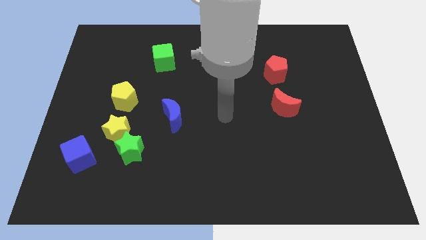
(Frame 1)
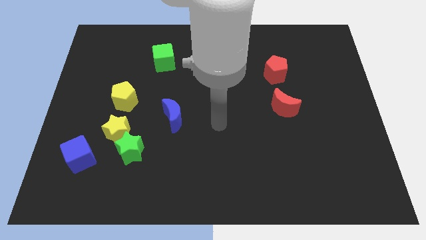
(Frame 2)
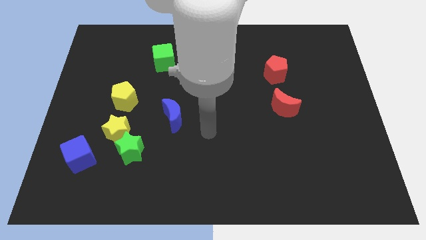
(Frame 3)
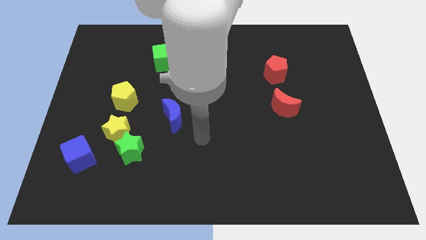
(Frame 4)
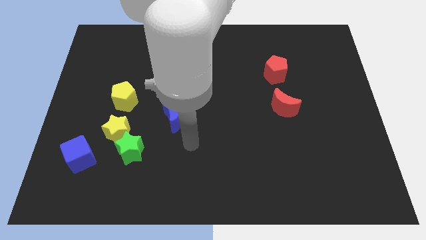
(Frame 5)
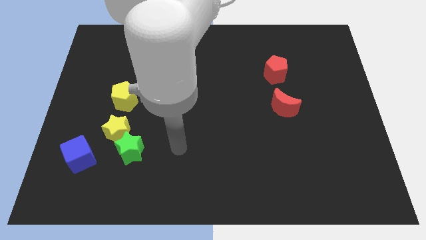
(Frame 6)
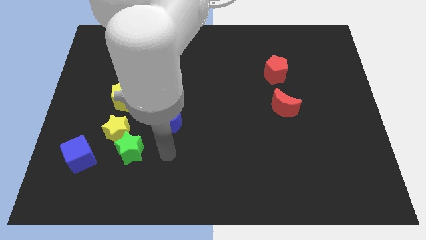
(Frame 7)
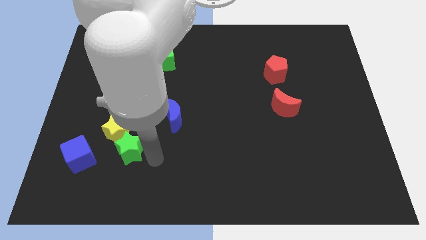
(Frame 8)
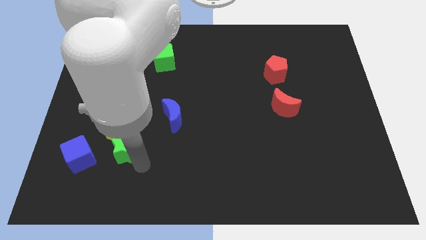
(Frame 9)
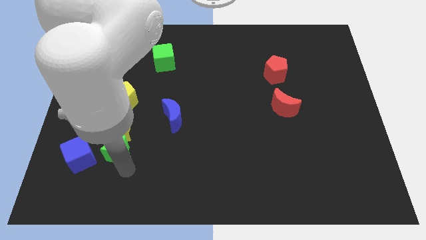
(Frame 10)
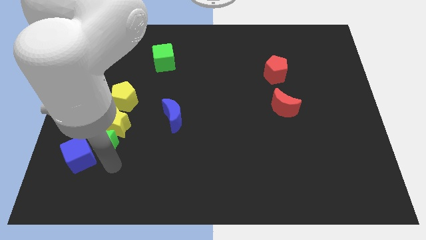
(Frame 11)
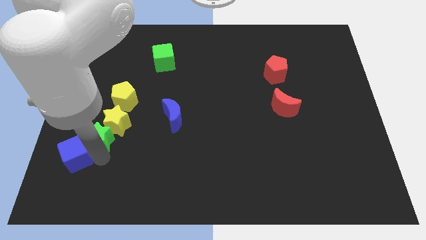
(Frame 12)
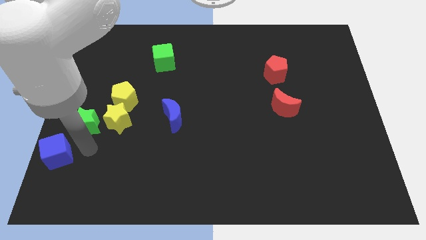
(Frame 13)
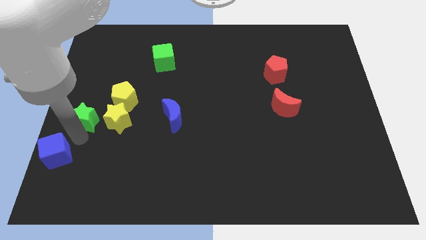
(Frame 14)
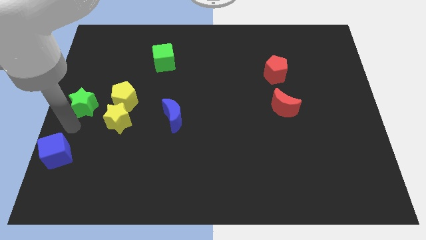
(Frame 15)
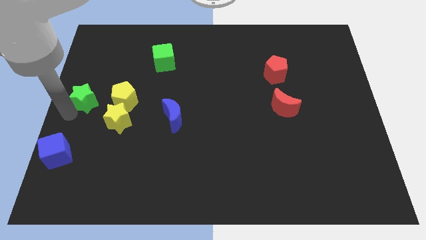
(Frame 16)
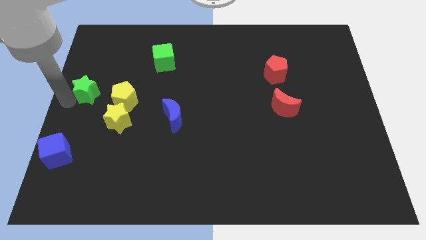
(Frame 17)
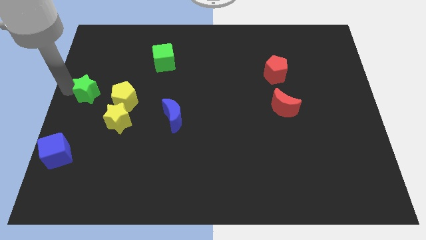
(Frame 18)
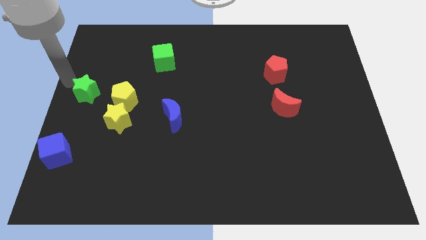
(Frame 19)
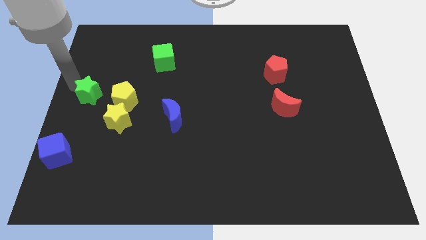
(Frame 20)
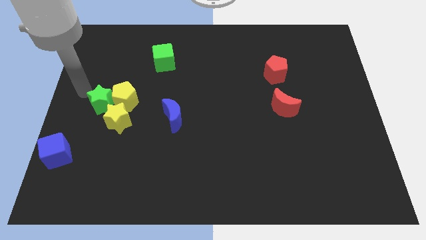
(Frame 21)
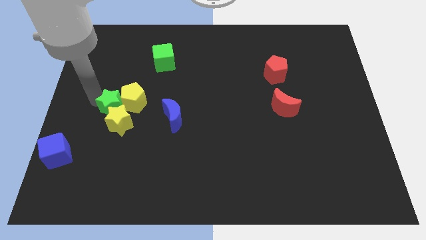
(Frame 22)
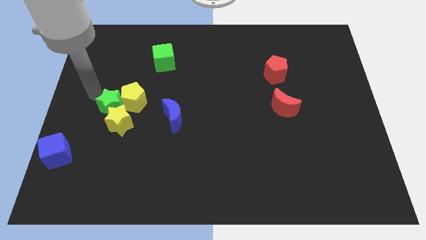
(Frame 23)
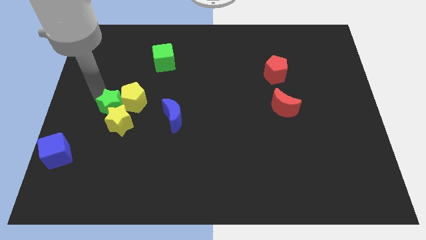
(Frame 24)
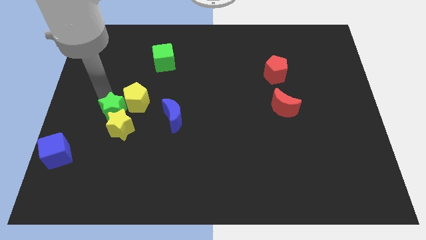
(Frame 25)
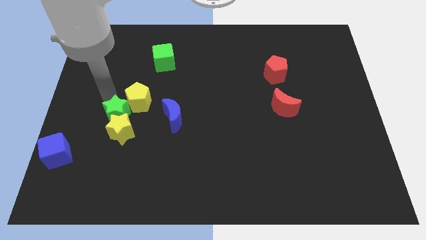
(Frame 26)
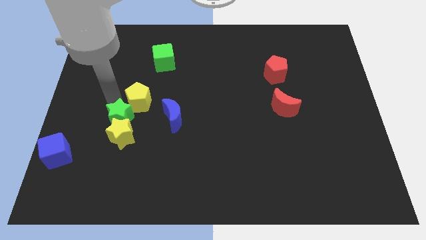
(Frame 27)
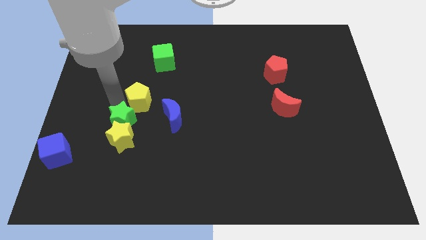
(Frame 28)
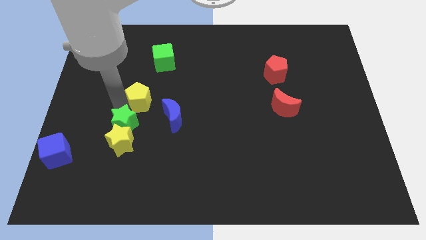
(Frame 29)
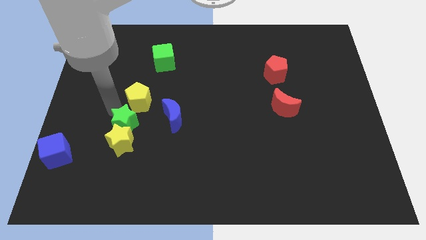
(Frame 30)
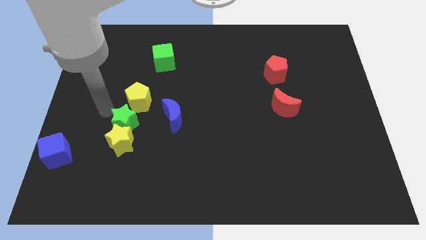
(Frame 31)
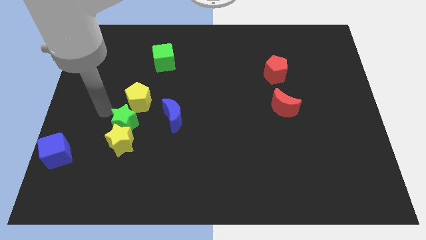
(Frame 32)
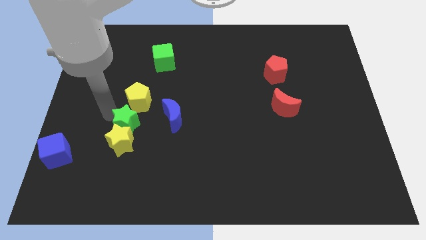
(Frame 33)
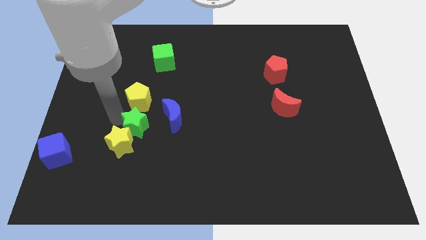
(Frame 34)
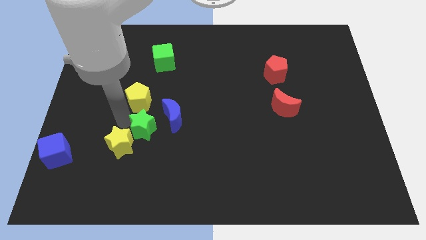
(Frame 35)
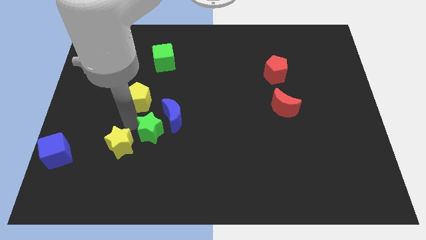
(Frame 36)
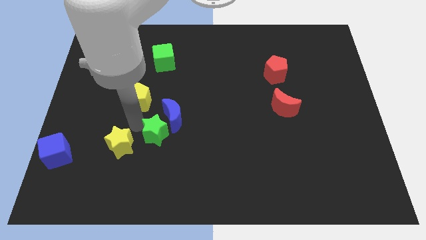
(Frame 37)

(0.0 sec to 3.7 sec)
slightly move the green star diagonally upwards and to the right

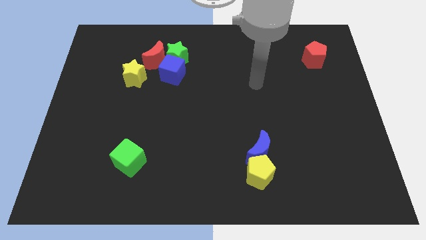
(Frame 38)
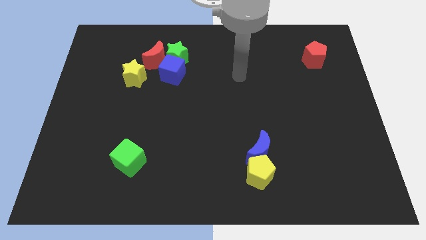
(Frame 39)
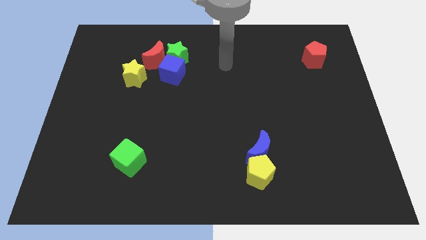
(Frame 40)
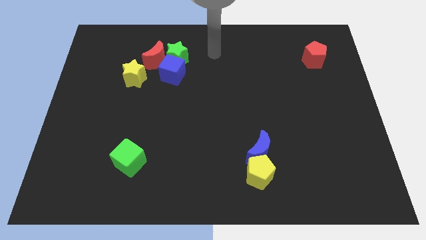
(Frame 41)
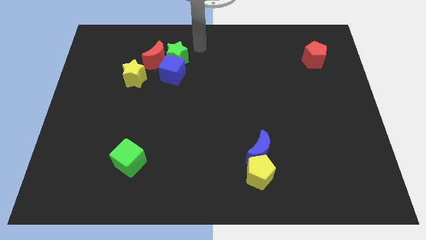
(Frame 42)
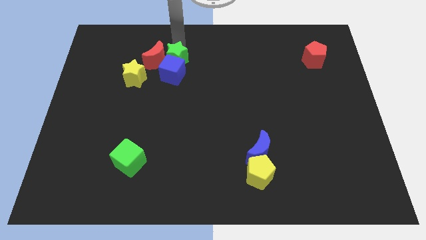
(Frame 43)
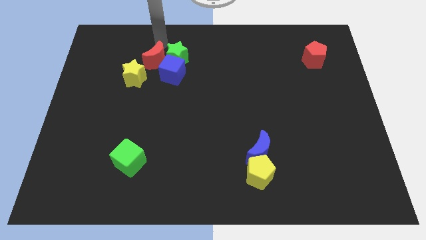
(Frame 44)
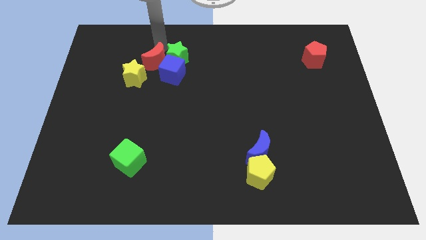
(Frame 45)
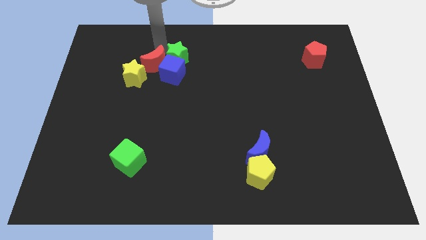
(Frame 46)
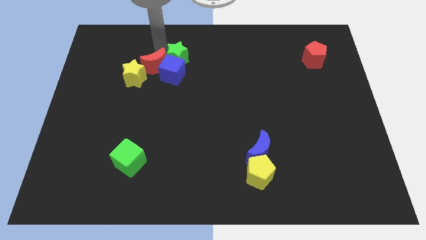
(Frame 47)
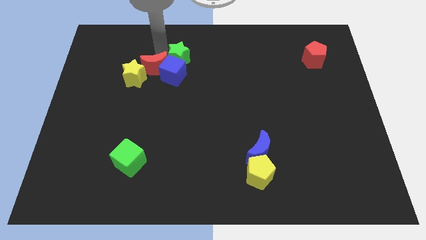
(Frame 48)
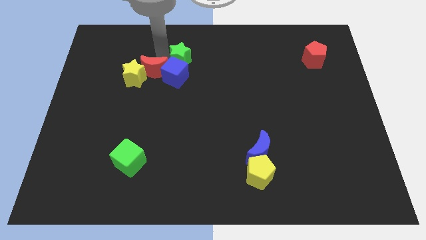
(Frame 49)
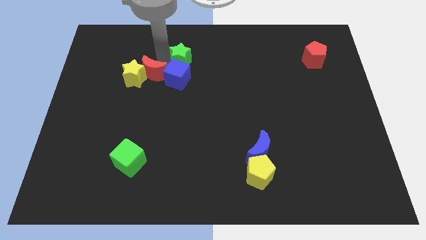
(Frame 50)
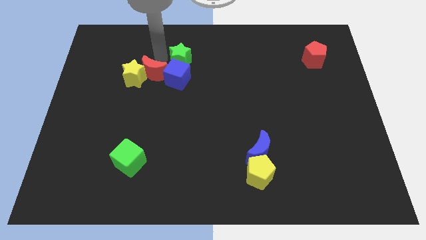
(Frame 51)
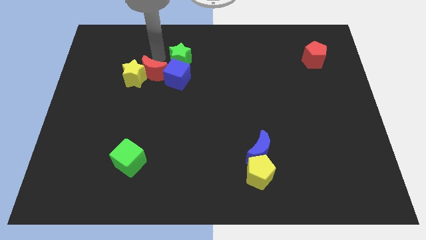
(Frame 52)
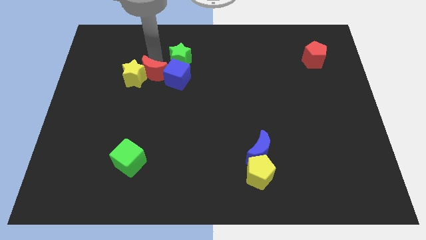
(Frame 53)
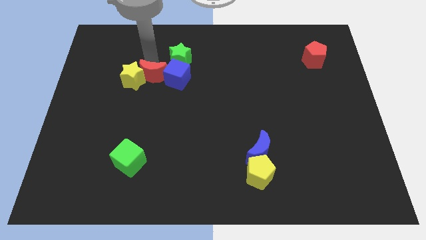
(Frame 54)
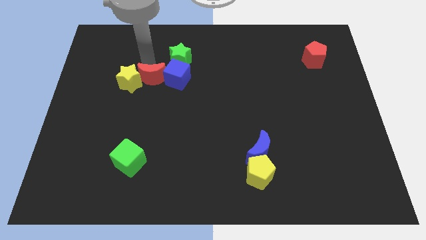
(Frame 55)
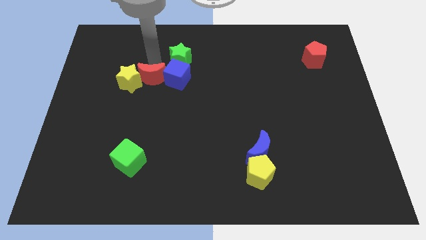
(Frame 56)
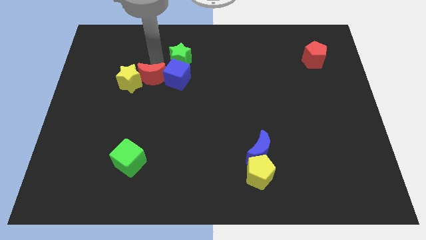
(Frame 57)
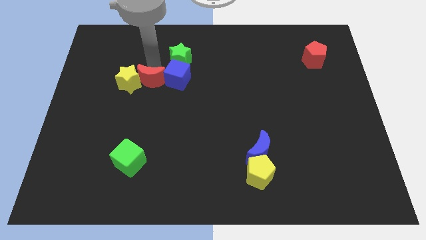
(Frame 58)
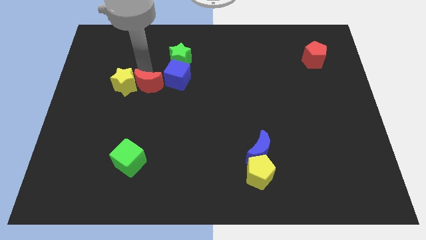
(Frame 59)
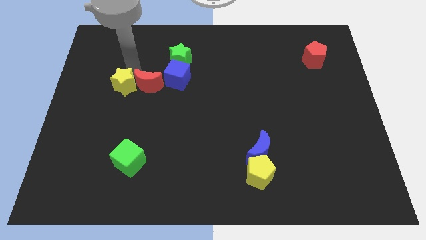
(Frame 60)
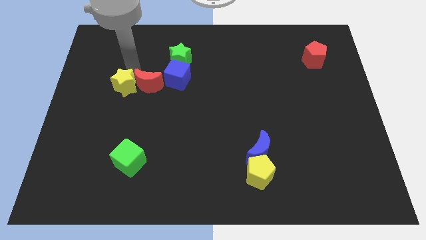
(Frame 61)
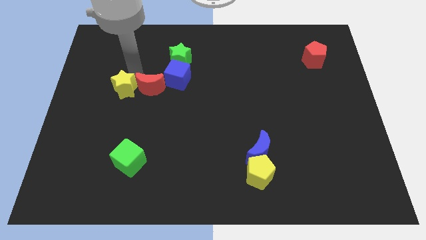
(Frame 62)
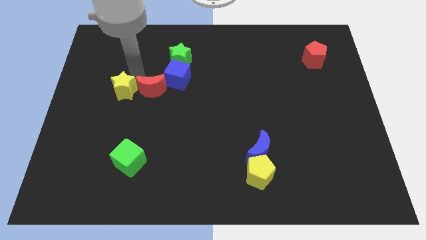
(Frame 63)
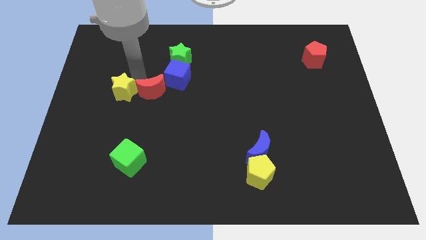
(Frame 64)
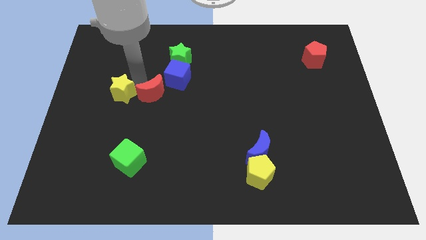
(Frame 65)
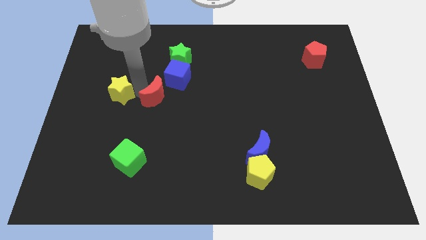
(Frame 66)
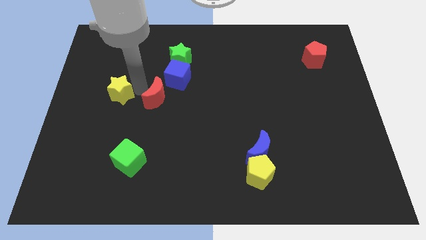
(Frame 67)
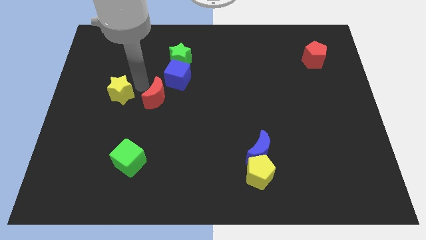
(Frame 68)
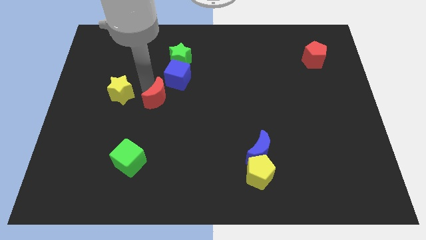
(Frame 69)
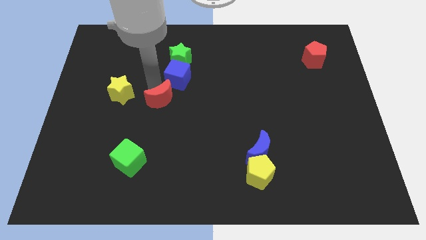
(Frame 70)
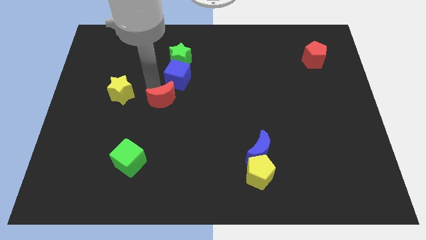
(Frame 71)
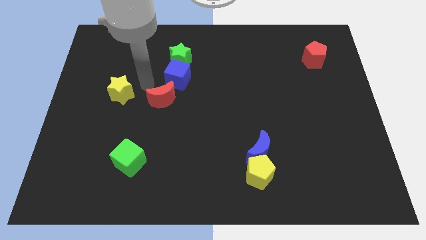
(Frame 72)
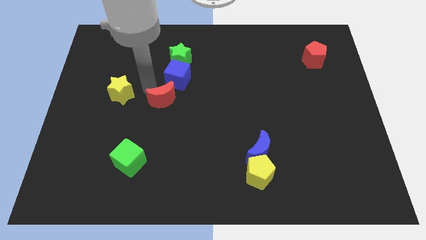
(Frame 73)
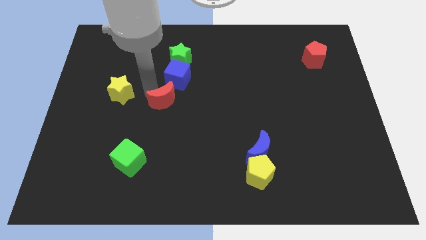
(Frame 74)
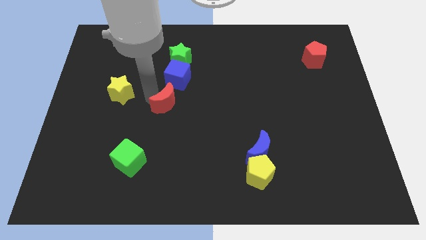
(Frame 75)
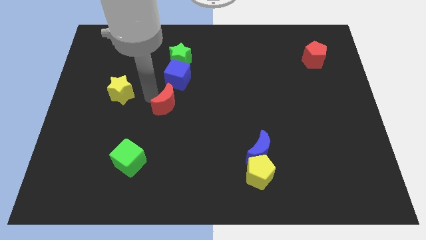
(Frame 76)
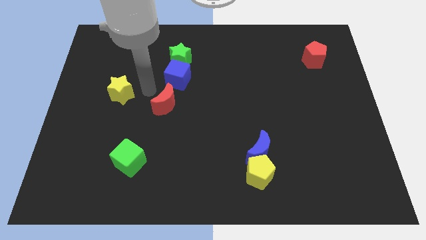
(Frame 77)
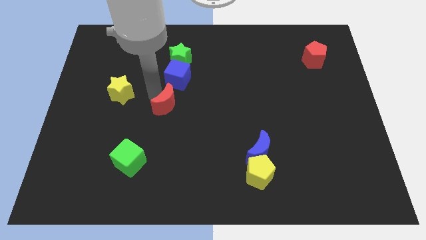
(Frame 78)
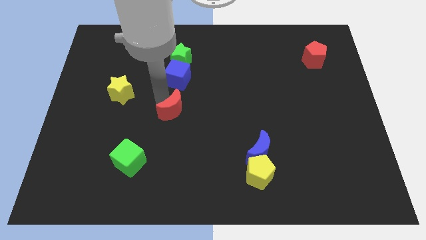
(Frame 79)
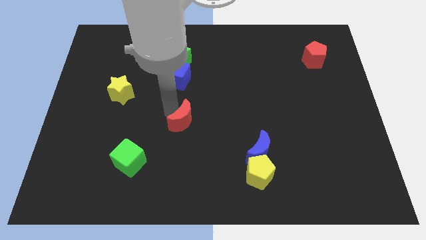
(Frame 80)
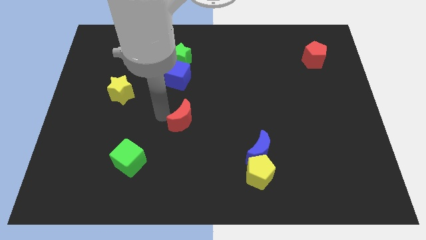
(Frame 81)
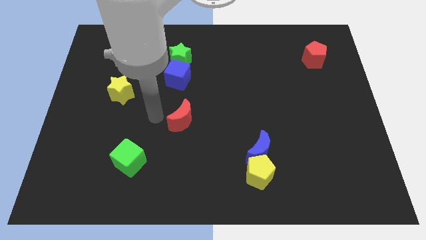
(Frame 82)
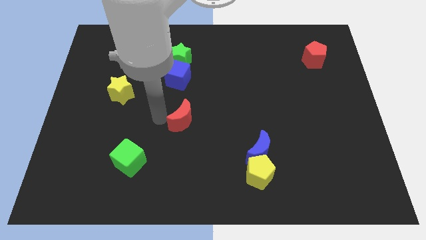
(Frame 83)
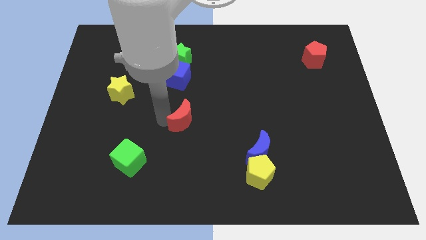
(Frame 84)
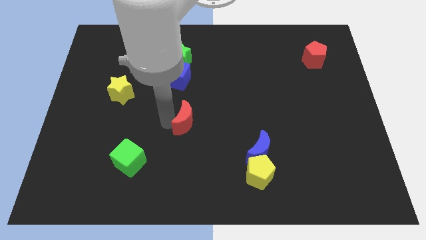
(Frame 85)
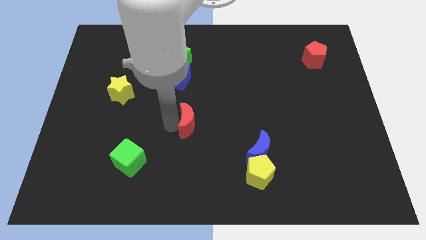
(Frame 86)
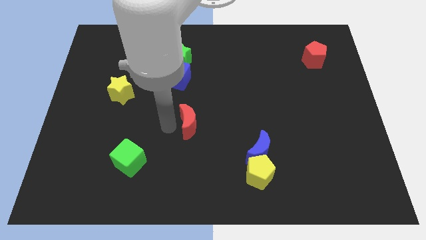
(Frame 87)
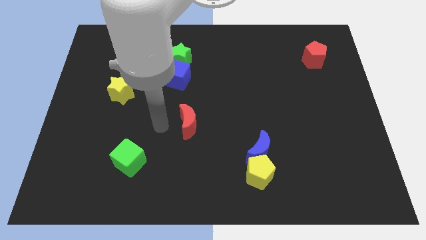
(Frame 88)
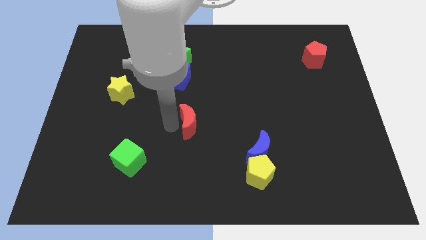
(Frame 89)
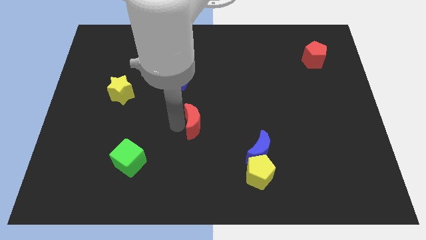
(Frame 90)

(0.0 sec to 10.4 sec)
slide the red moon down and to the right diagonally
